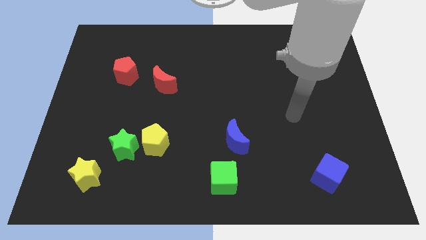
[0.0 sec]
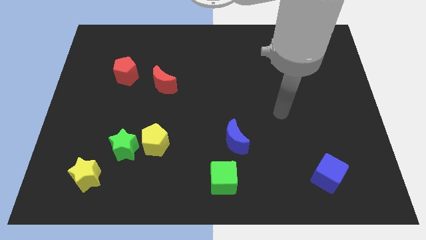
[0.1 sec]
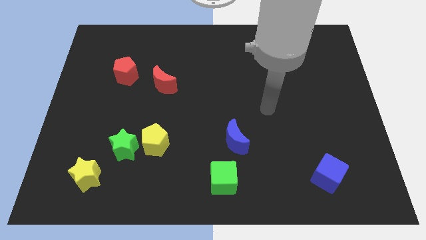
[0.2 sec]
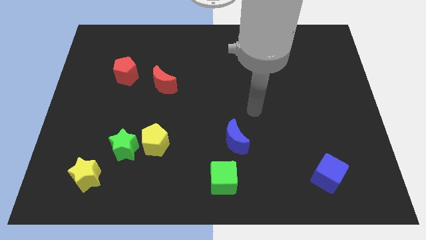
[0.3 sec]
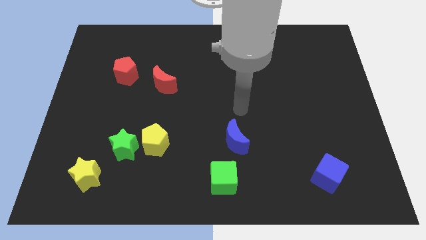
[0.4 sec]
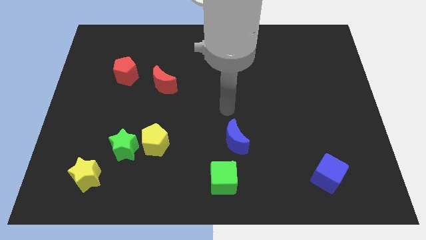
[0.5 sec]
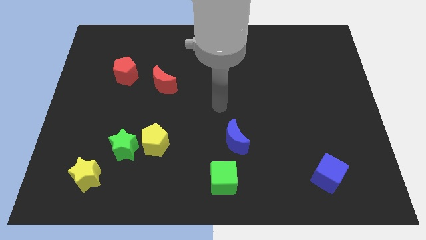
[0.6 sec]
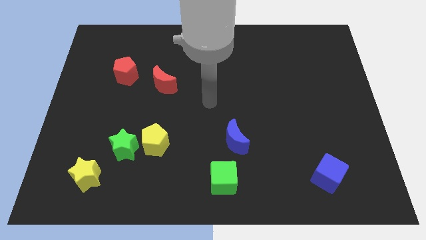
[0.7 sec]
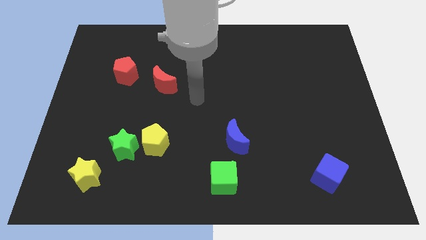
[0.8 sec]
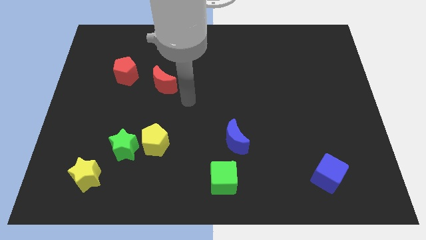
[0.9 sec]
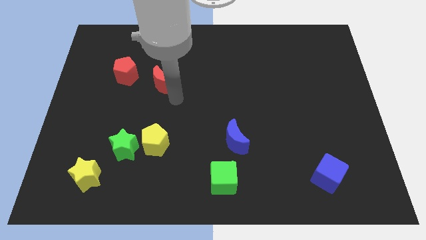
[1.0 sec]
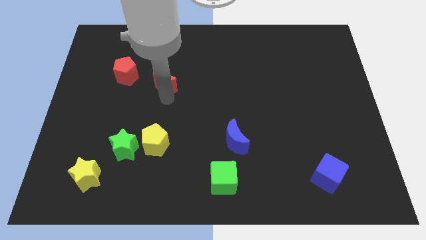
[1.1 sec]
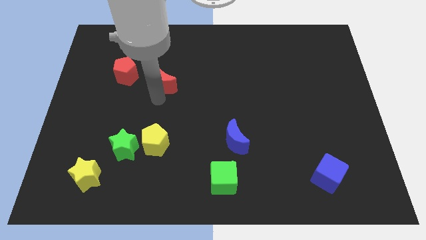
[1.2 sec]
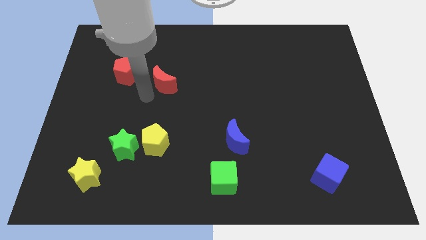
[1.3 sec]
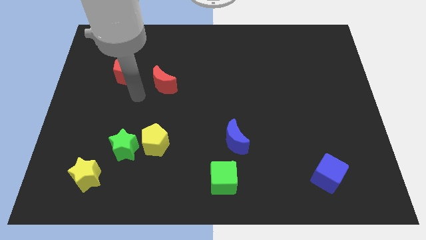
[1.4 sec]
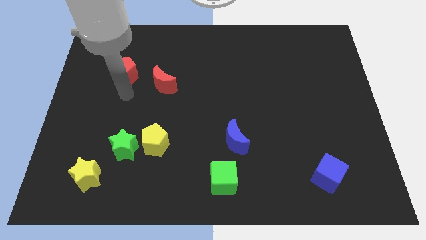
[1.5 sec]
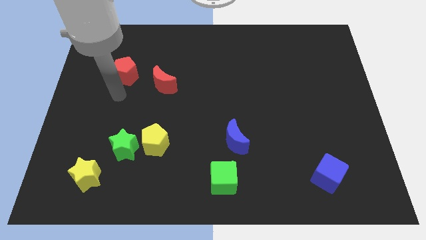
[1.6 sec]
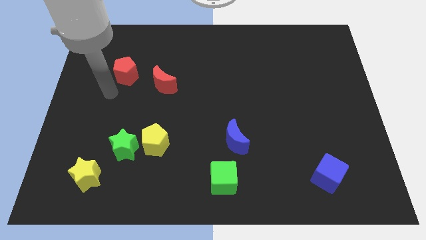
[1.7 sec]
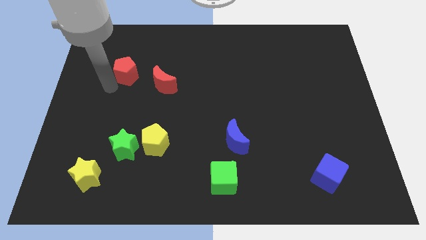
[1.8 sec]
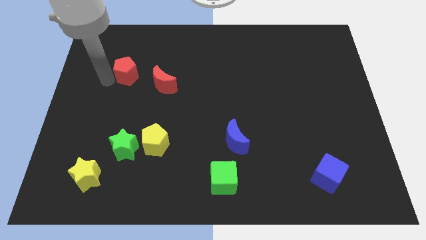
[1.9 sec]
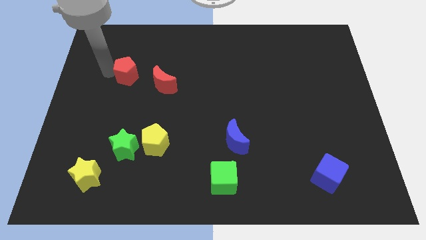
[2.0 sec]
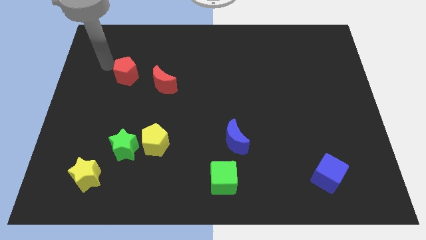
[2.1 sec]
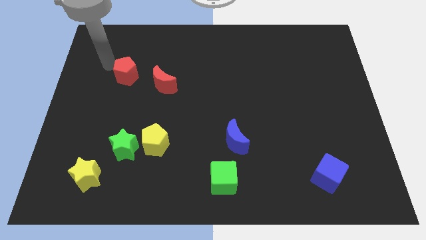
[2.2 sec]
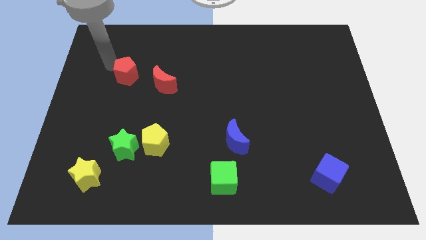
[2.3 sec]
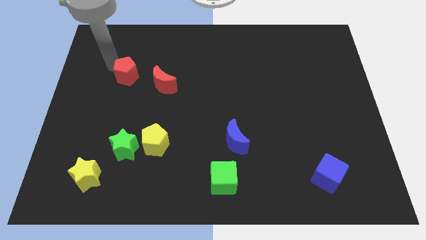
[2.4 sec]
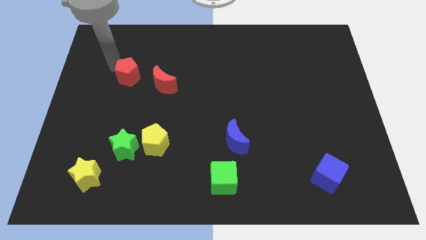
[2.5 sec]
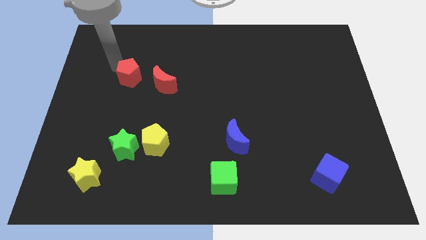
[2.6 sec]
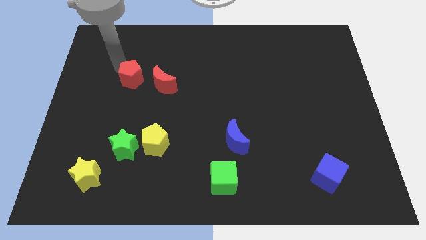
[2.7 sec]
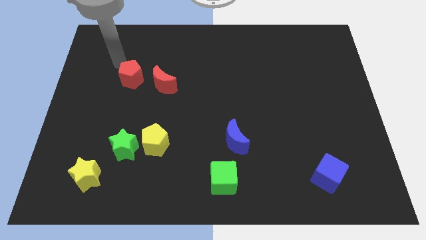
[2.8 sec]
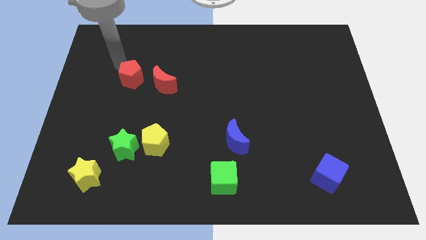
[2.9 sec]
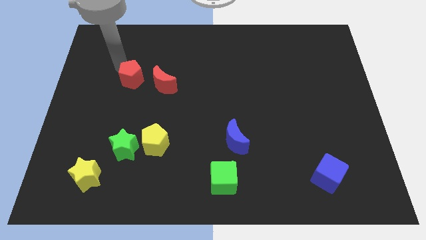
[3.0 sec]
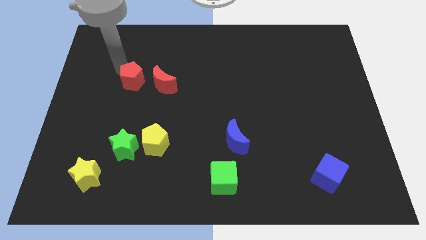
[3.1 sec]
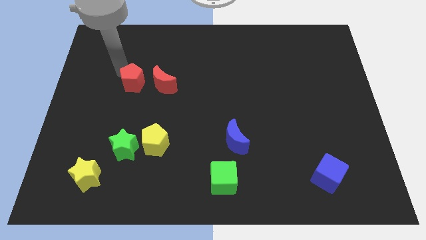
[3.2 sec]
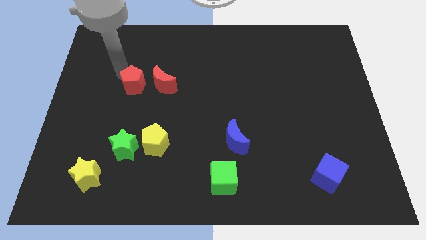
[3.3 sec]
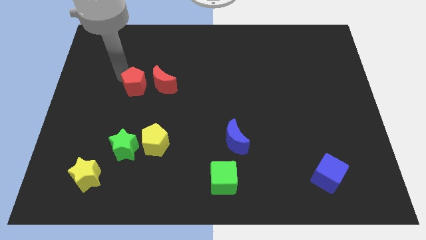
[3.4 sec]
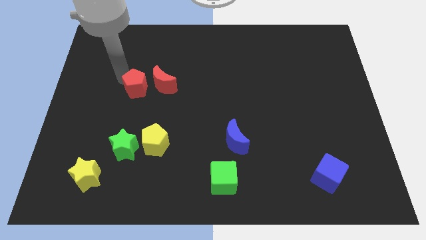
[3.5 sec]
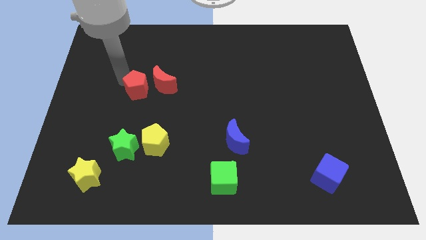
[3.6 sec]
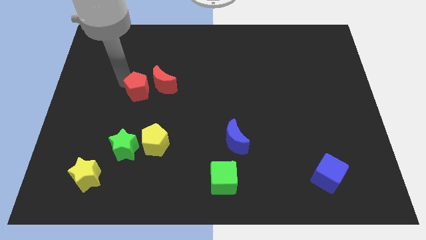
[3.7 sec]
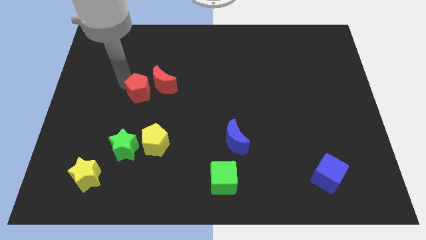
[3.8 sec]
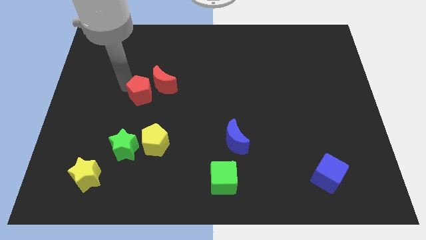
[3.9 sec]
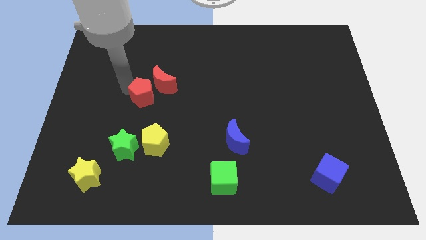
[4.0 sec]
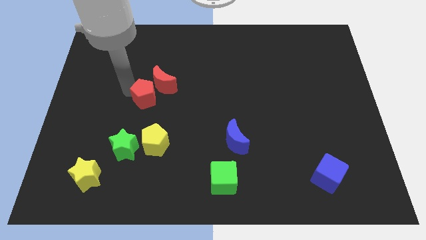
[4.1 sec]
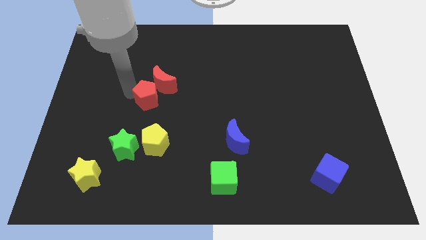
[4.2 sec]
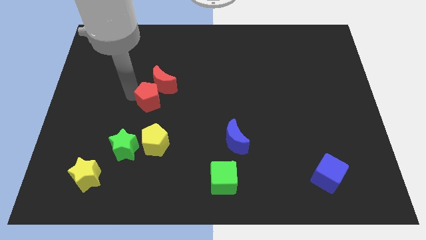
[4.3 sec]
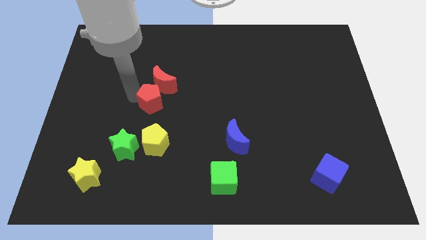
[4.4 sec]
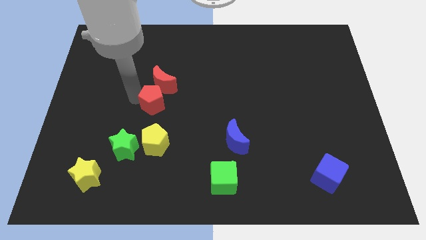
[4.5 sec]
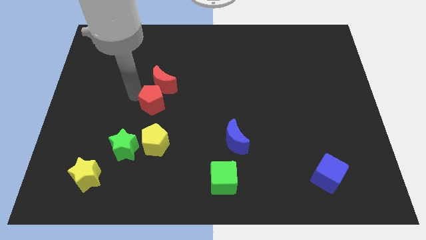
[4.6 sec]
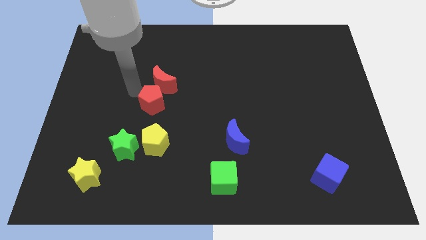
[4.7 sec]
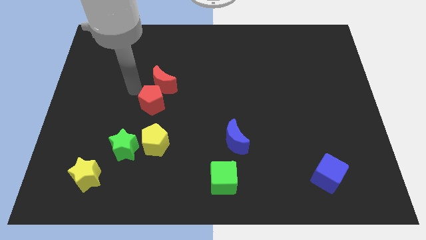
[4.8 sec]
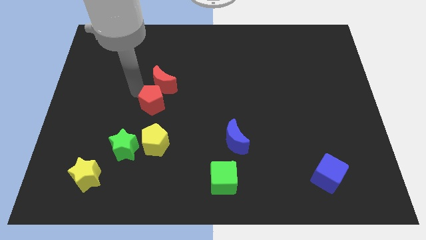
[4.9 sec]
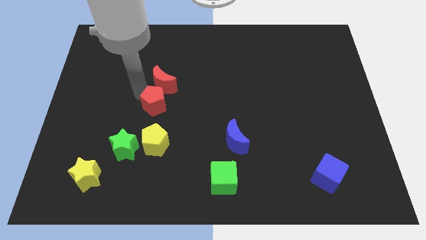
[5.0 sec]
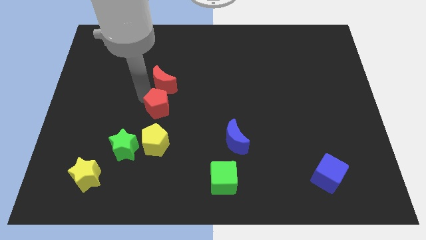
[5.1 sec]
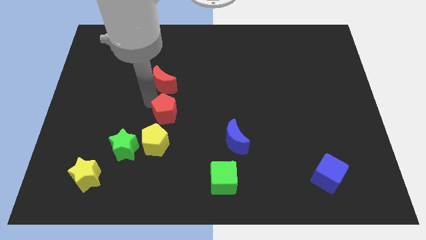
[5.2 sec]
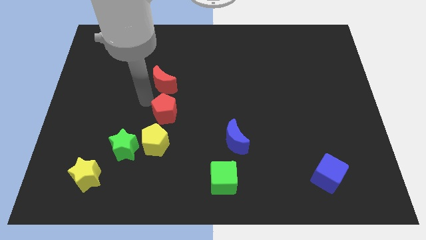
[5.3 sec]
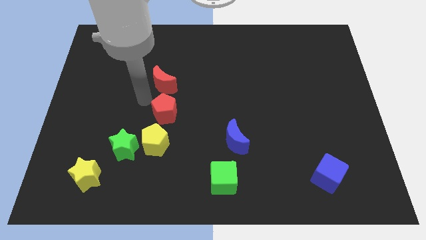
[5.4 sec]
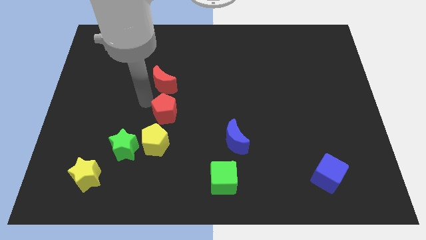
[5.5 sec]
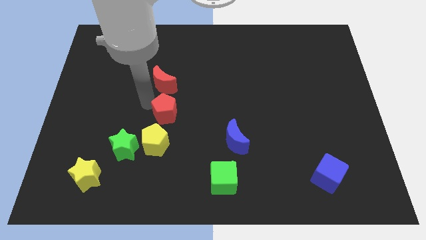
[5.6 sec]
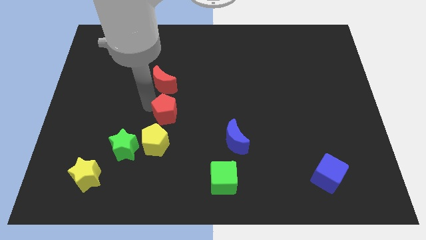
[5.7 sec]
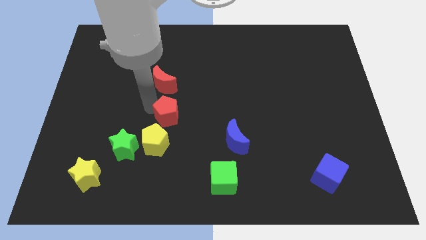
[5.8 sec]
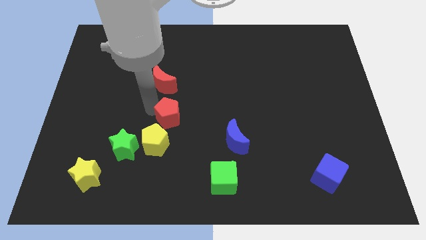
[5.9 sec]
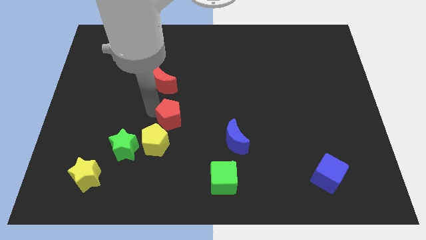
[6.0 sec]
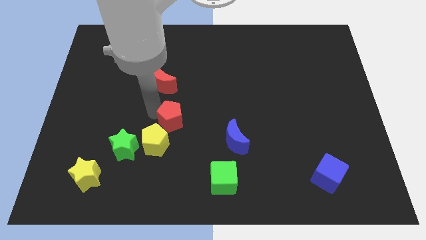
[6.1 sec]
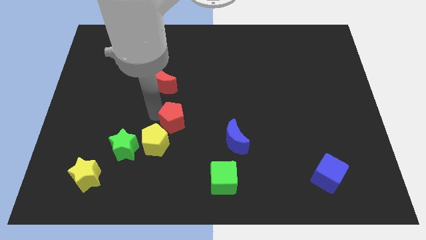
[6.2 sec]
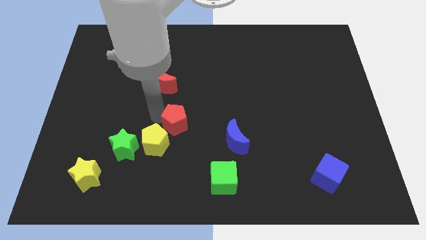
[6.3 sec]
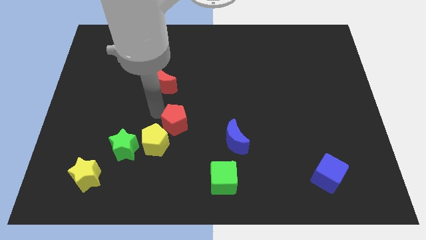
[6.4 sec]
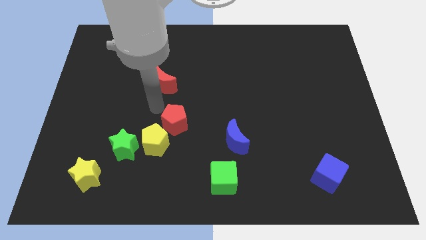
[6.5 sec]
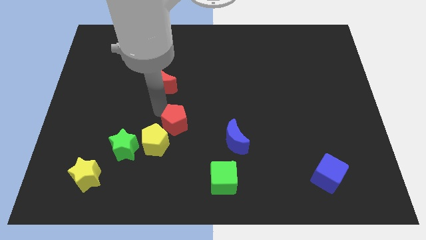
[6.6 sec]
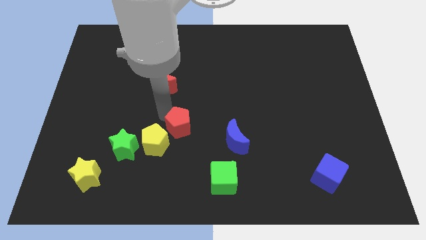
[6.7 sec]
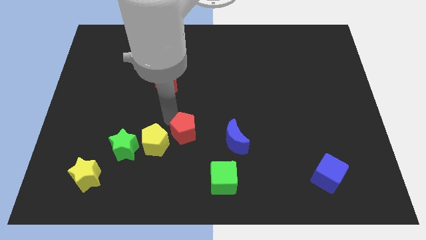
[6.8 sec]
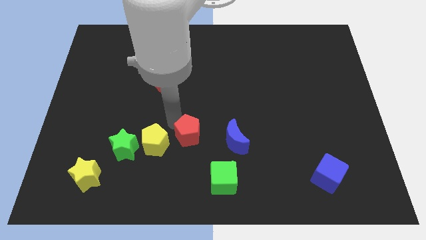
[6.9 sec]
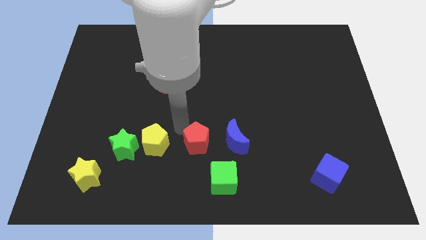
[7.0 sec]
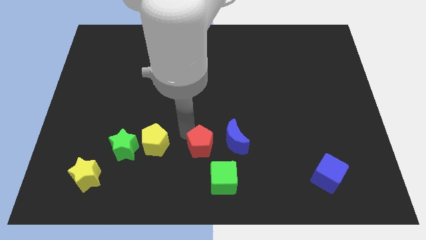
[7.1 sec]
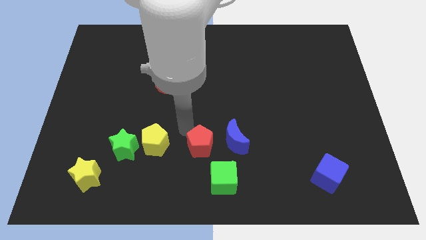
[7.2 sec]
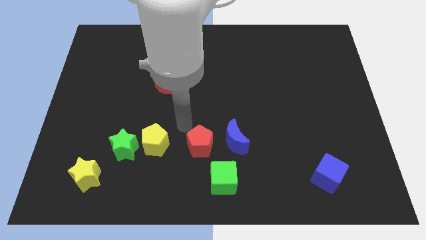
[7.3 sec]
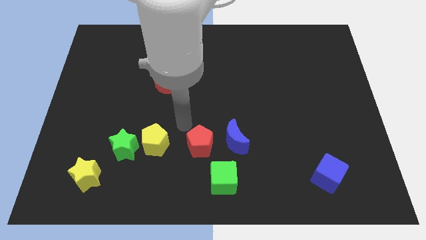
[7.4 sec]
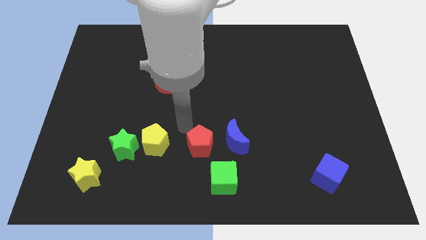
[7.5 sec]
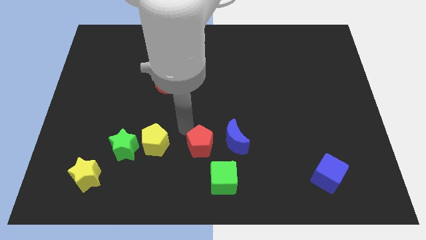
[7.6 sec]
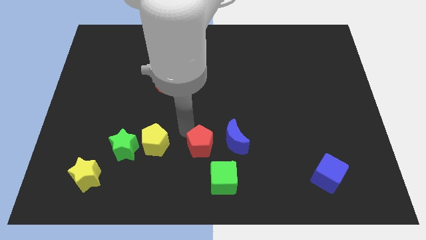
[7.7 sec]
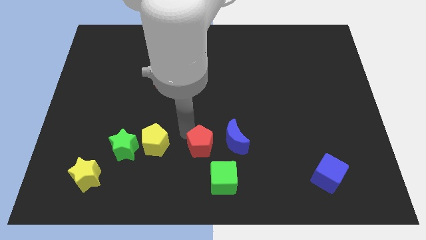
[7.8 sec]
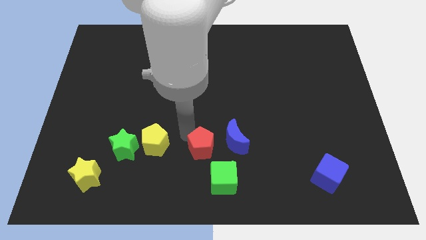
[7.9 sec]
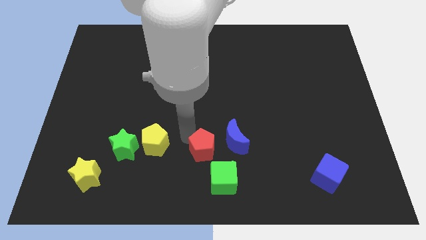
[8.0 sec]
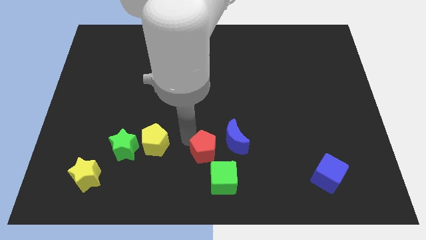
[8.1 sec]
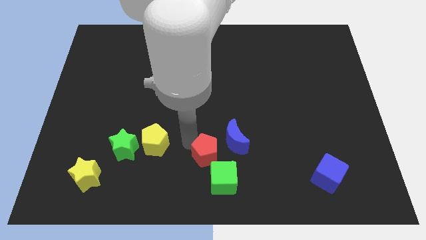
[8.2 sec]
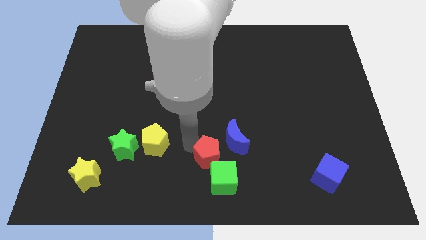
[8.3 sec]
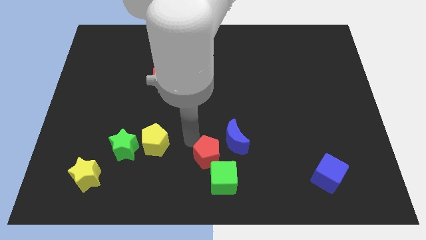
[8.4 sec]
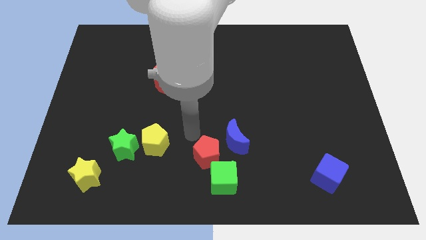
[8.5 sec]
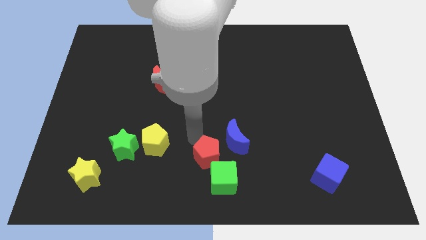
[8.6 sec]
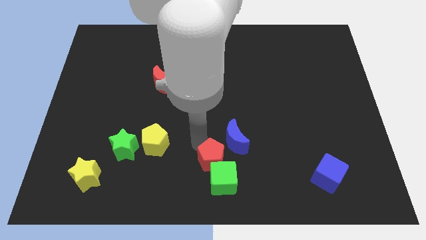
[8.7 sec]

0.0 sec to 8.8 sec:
put the red pentagon to the green cube
